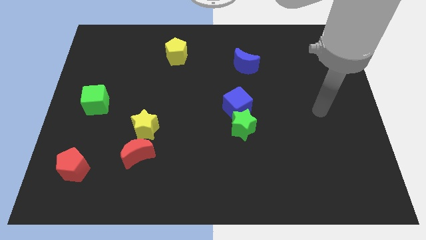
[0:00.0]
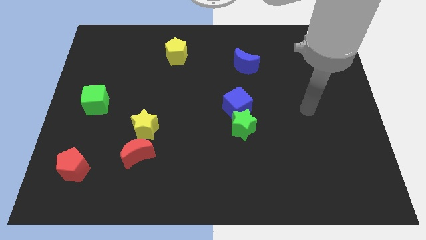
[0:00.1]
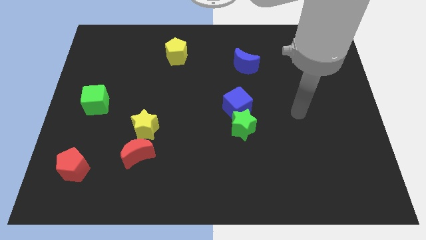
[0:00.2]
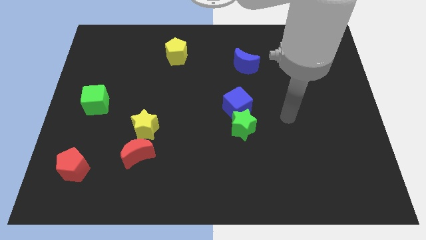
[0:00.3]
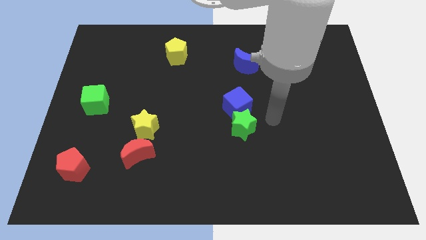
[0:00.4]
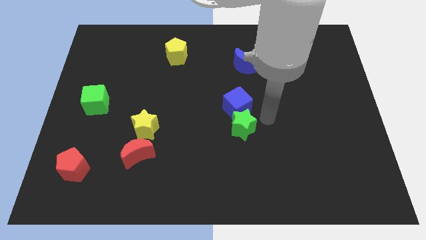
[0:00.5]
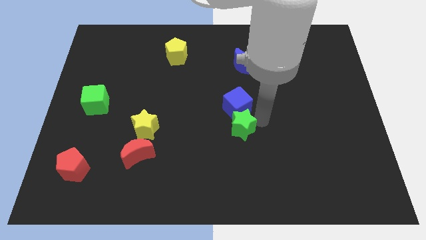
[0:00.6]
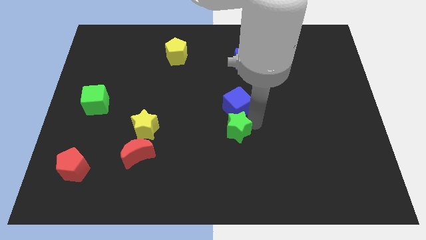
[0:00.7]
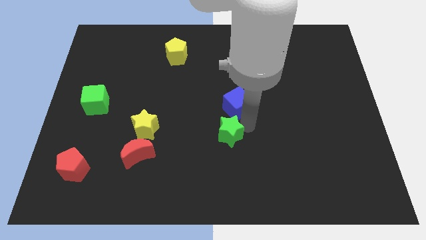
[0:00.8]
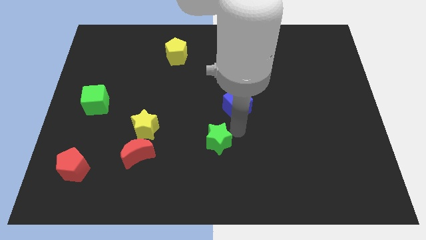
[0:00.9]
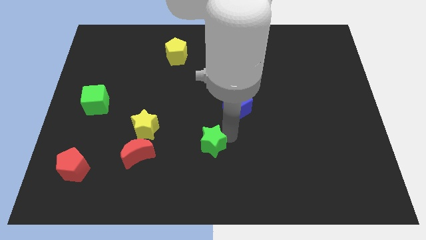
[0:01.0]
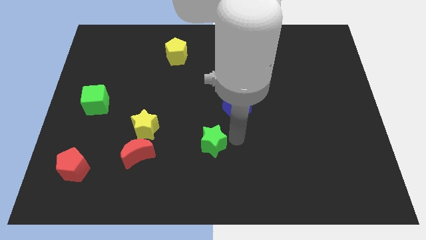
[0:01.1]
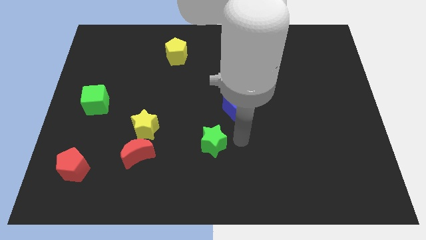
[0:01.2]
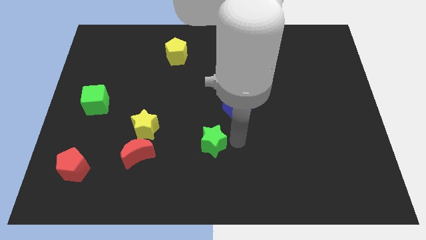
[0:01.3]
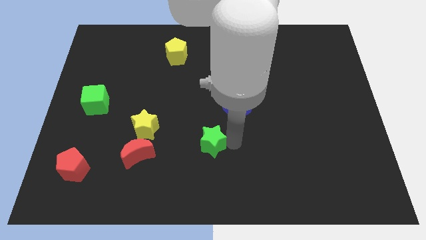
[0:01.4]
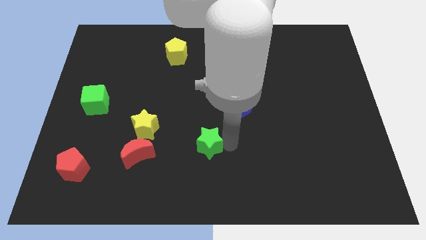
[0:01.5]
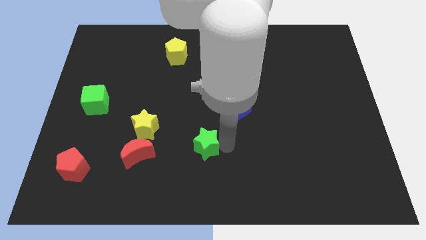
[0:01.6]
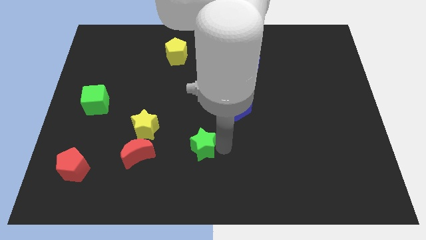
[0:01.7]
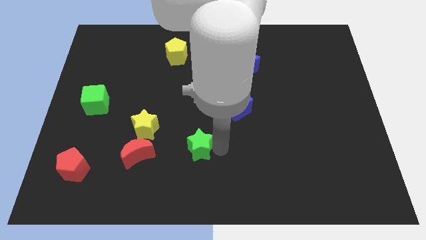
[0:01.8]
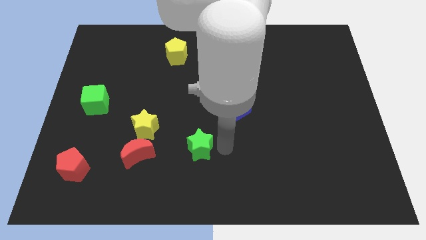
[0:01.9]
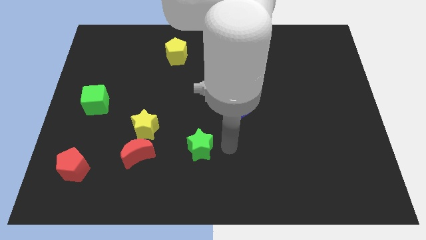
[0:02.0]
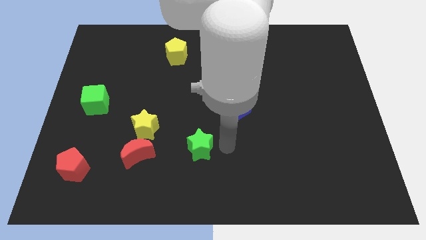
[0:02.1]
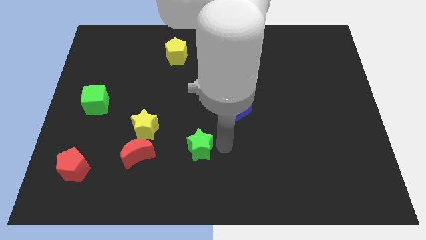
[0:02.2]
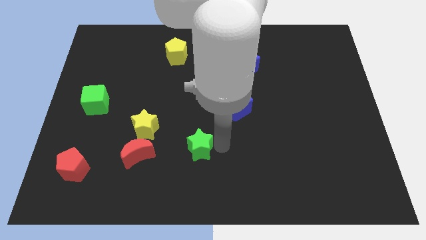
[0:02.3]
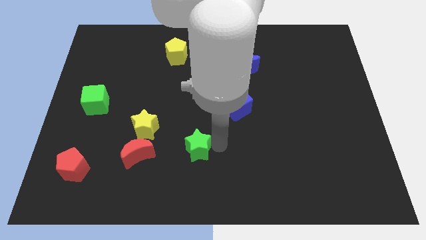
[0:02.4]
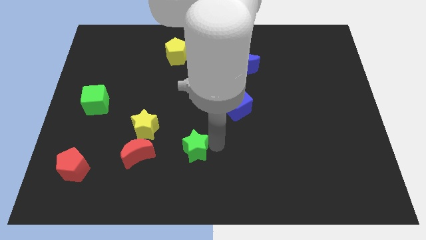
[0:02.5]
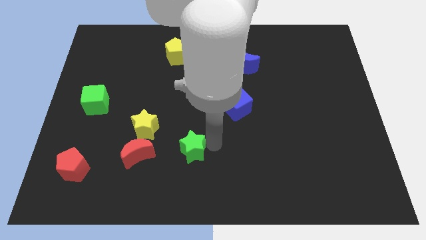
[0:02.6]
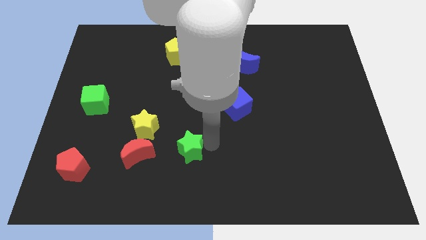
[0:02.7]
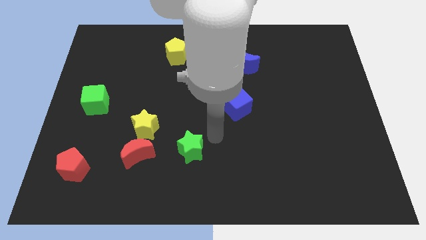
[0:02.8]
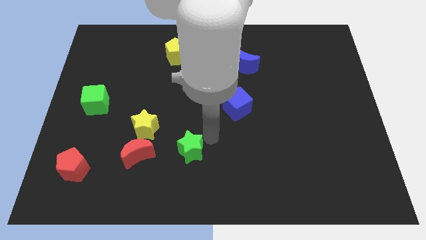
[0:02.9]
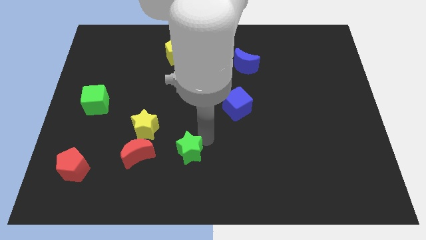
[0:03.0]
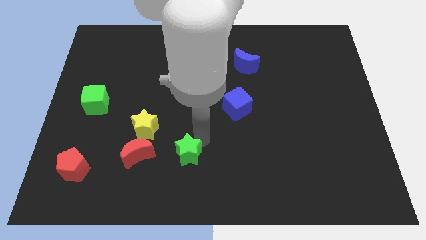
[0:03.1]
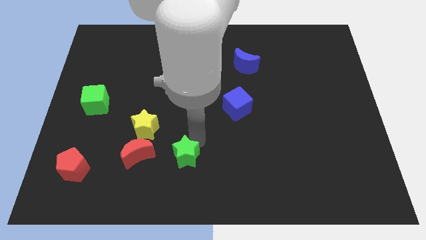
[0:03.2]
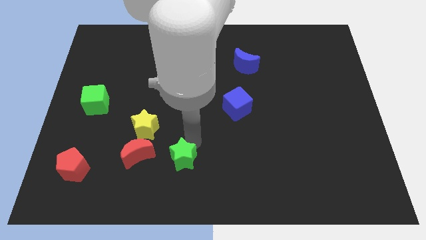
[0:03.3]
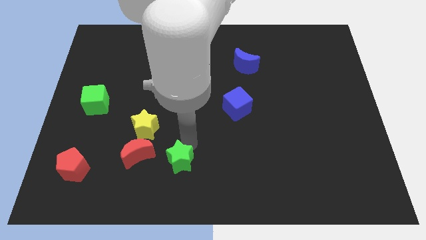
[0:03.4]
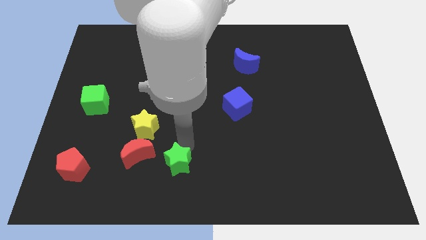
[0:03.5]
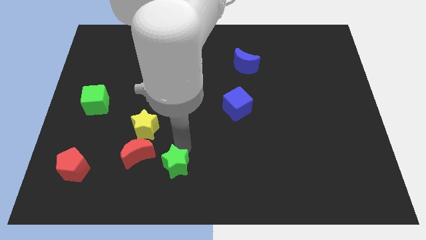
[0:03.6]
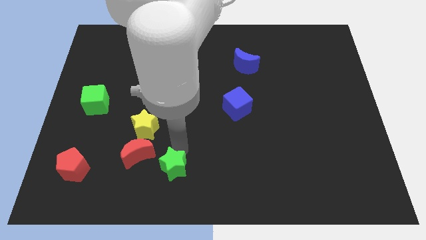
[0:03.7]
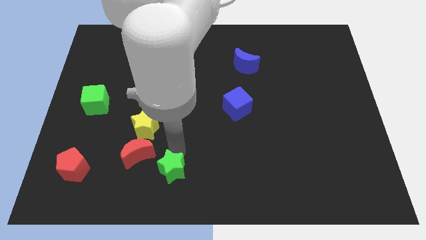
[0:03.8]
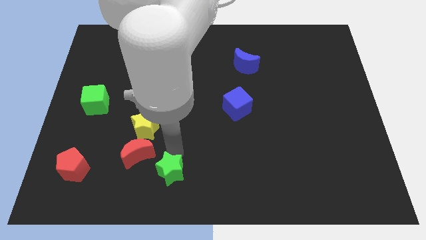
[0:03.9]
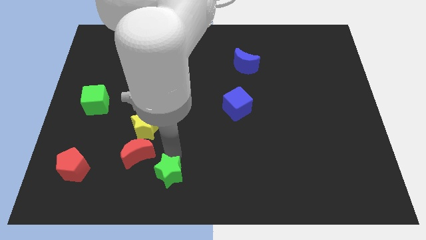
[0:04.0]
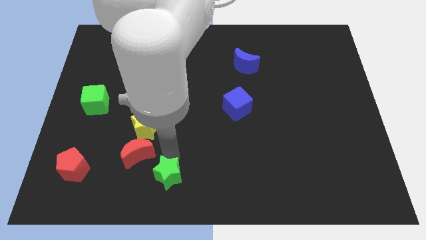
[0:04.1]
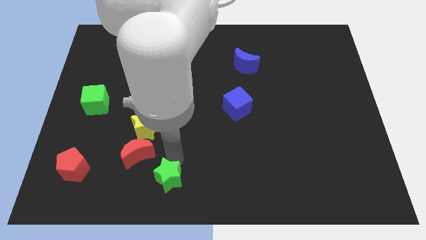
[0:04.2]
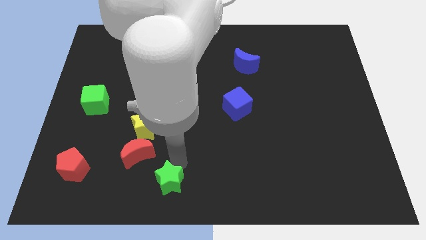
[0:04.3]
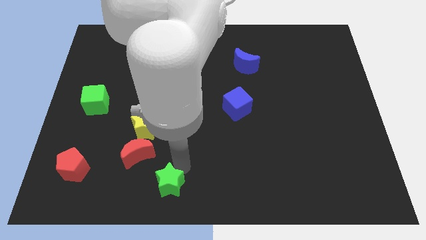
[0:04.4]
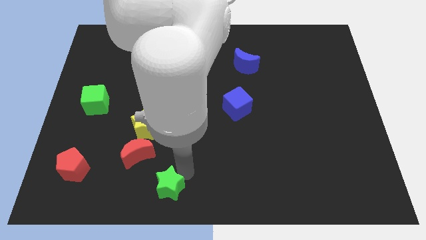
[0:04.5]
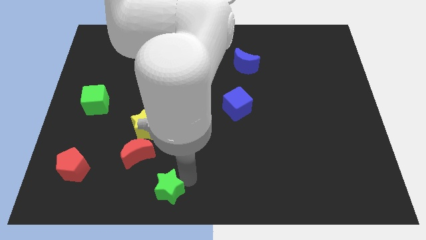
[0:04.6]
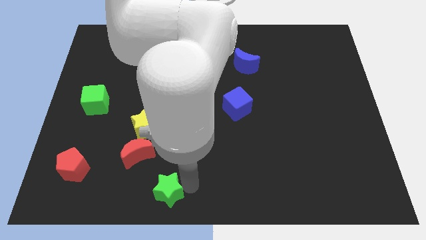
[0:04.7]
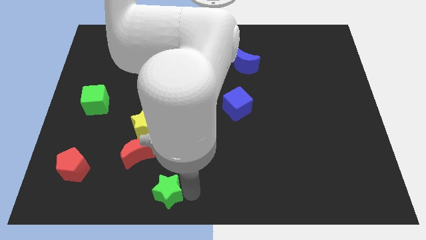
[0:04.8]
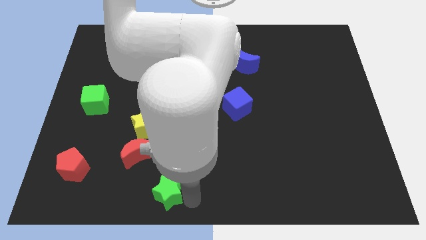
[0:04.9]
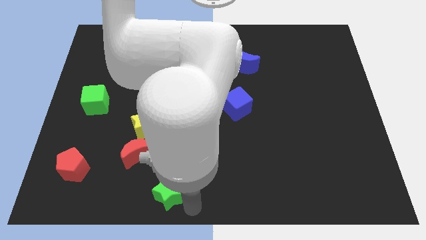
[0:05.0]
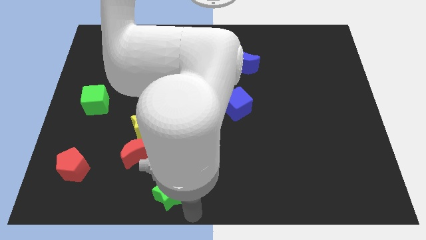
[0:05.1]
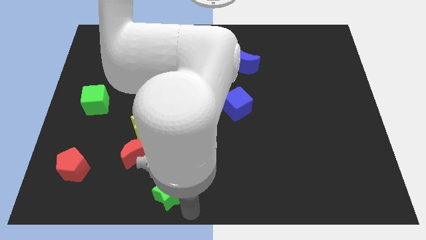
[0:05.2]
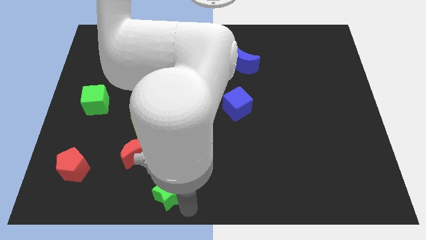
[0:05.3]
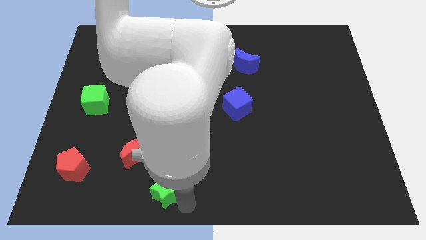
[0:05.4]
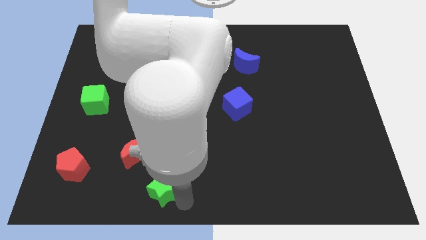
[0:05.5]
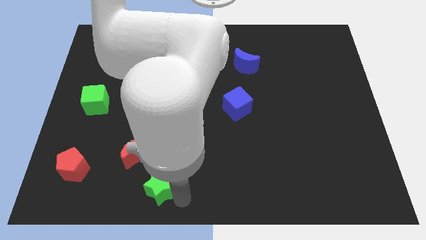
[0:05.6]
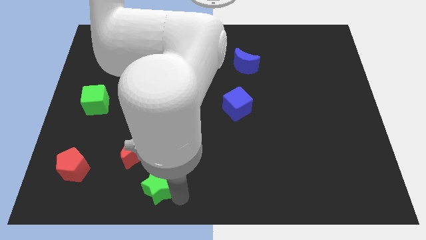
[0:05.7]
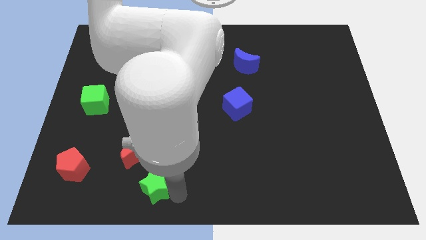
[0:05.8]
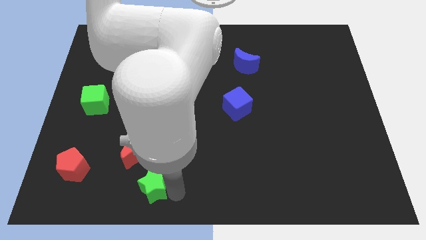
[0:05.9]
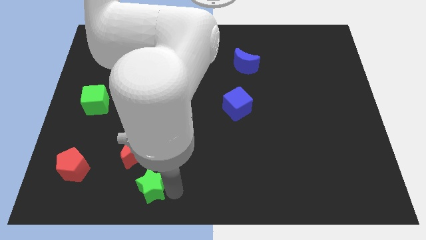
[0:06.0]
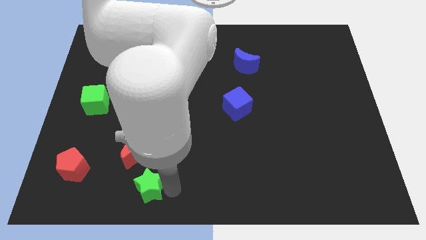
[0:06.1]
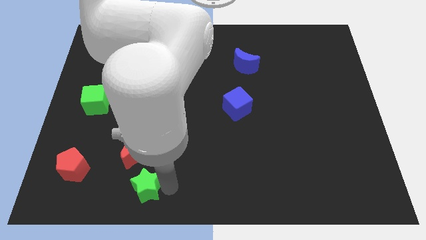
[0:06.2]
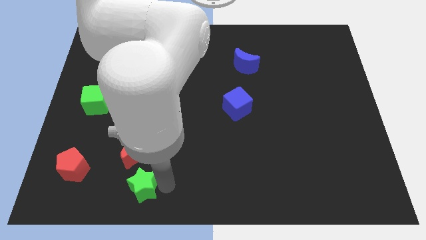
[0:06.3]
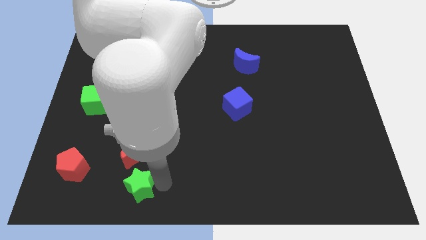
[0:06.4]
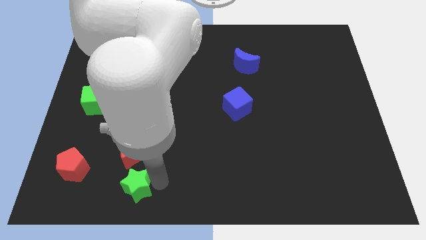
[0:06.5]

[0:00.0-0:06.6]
move the green star right of the red pentagon
